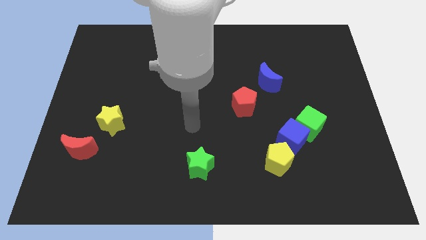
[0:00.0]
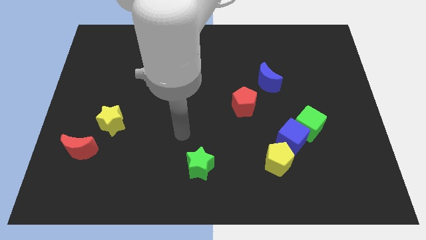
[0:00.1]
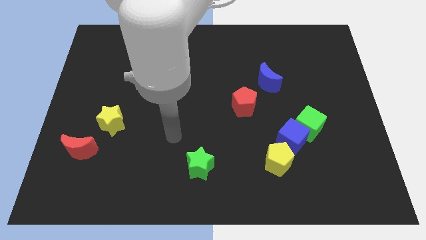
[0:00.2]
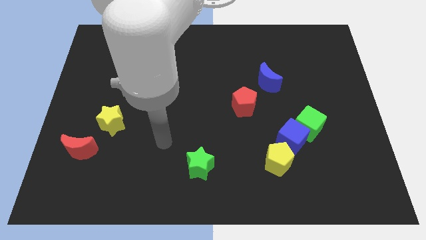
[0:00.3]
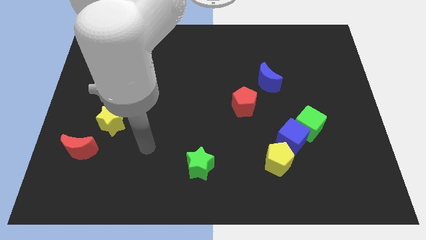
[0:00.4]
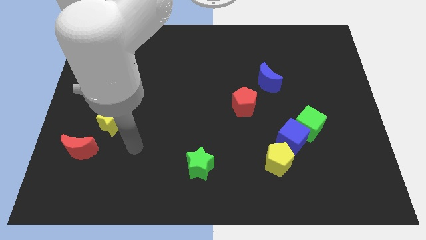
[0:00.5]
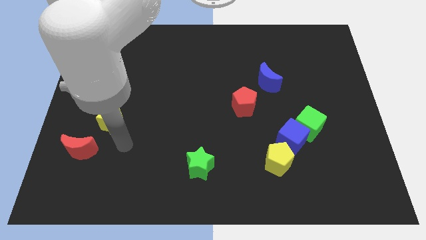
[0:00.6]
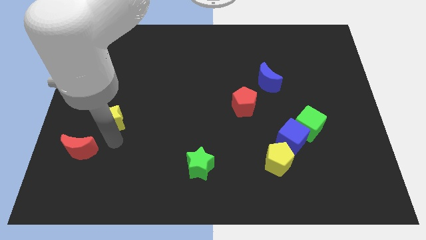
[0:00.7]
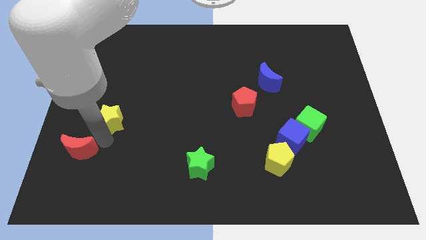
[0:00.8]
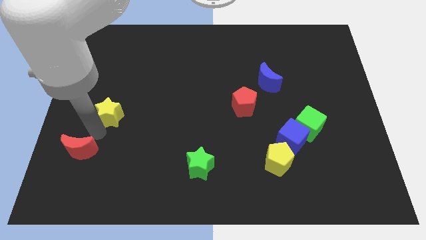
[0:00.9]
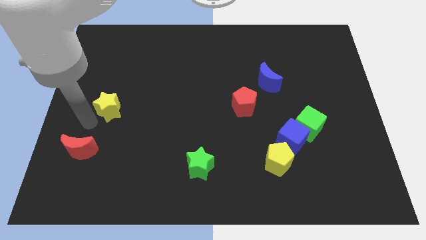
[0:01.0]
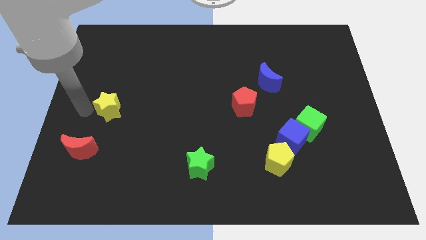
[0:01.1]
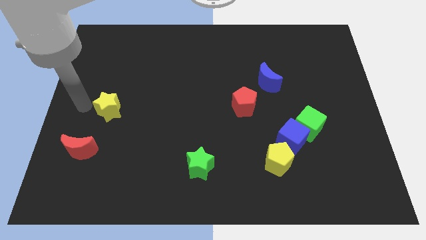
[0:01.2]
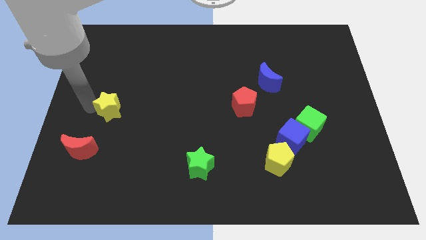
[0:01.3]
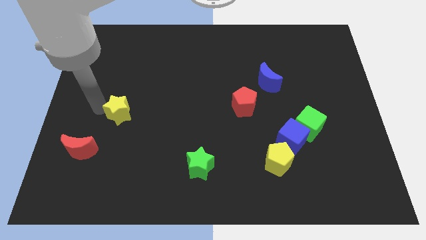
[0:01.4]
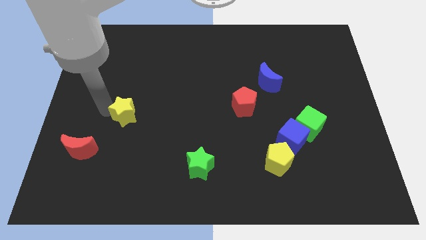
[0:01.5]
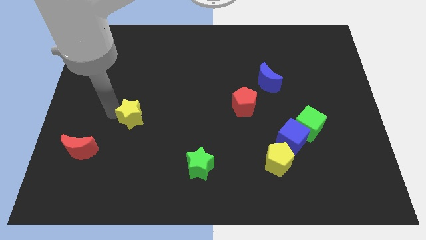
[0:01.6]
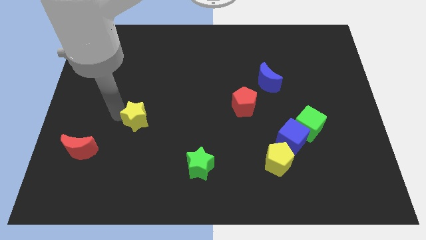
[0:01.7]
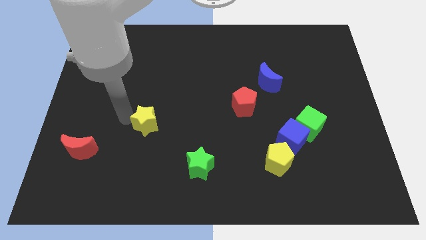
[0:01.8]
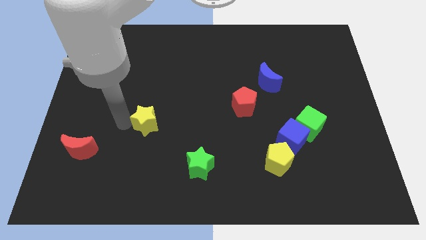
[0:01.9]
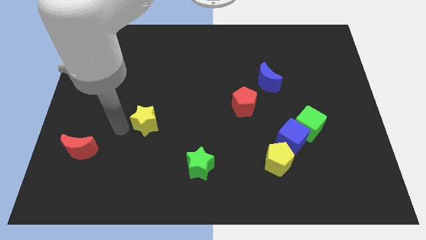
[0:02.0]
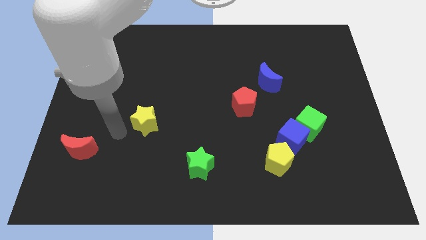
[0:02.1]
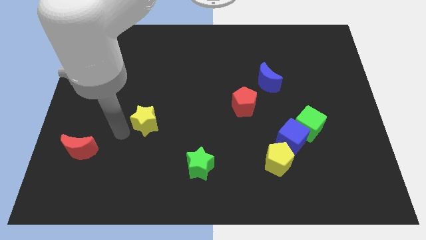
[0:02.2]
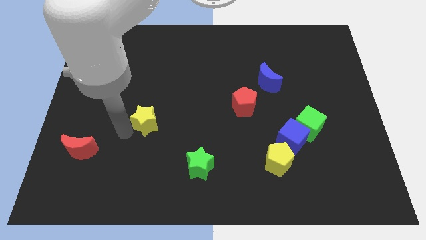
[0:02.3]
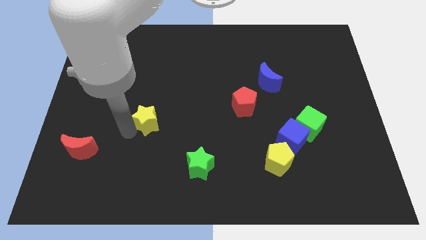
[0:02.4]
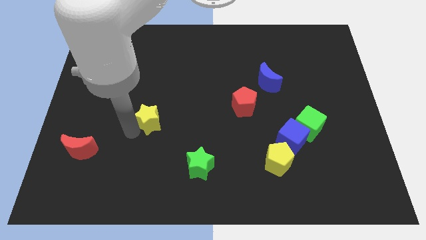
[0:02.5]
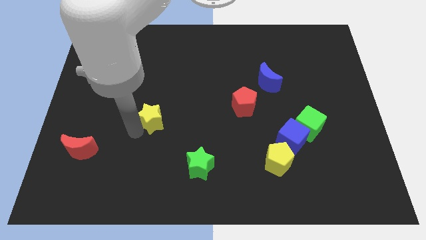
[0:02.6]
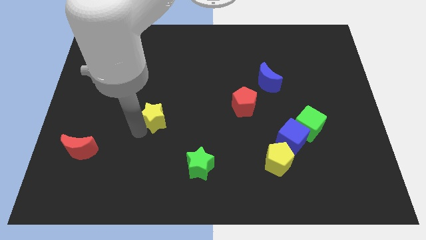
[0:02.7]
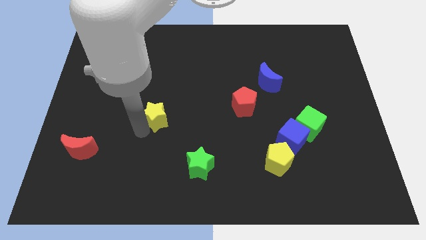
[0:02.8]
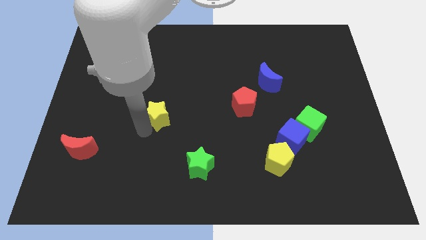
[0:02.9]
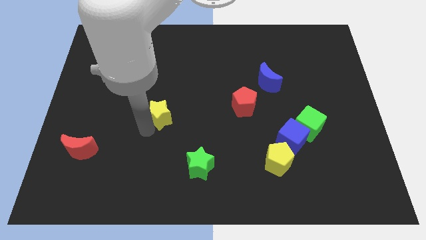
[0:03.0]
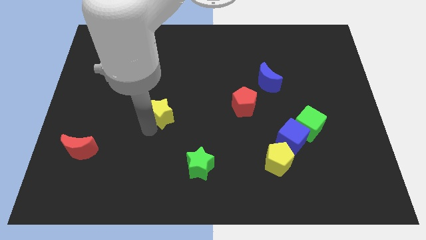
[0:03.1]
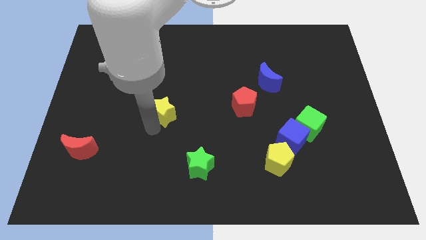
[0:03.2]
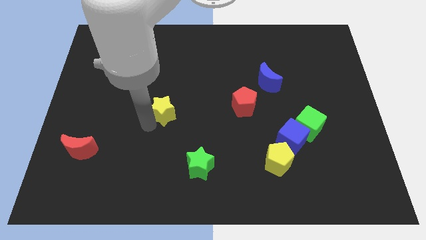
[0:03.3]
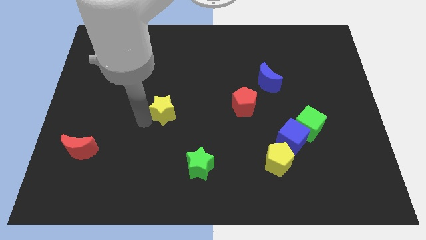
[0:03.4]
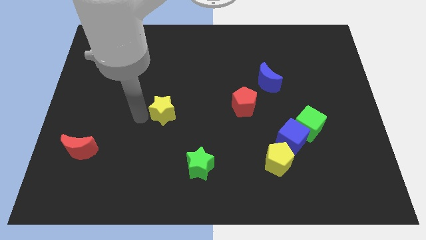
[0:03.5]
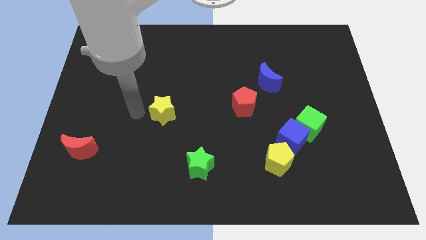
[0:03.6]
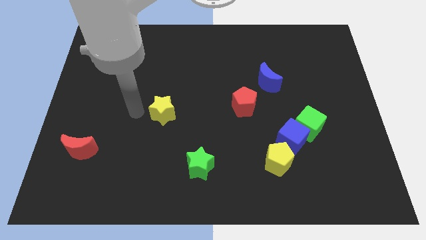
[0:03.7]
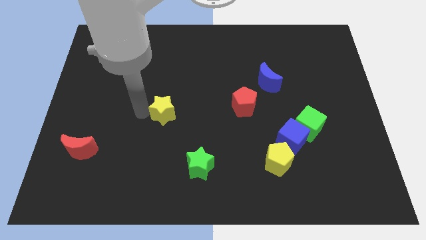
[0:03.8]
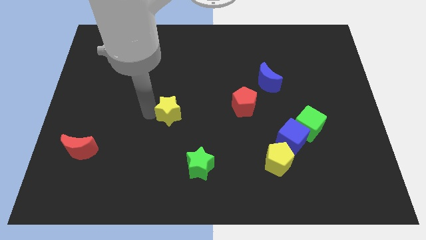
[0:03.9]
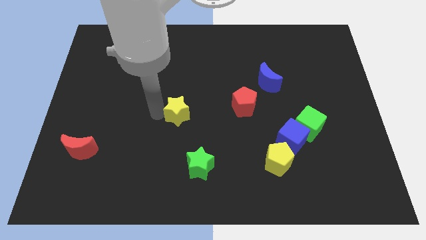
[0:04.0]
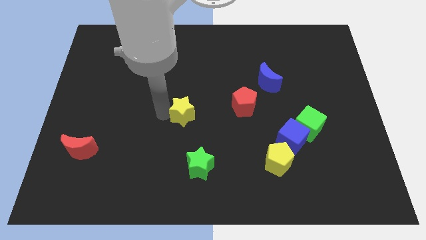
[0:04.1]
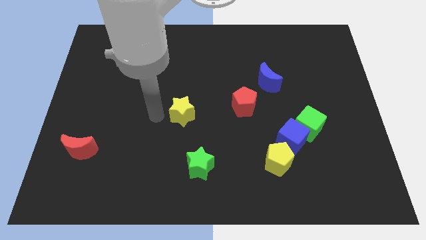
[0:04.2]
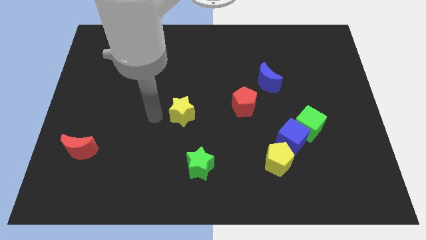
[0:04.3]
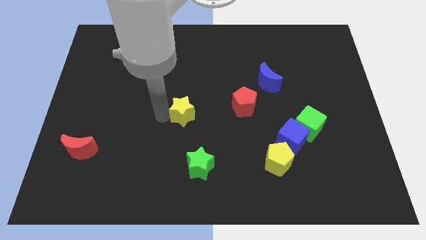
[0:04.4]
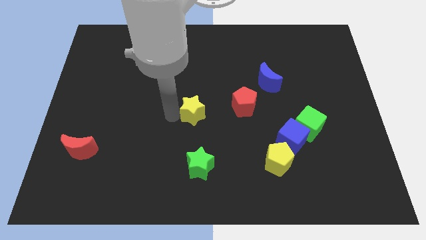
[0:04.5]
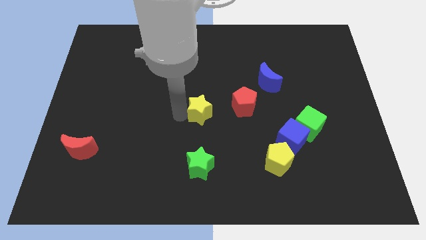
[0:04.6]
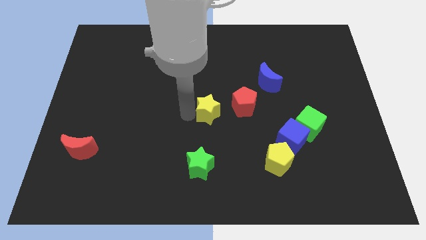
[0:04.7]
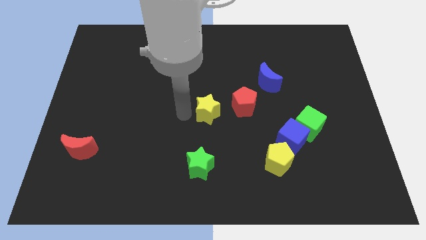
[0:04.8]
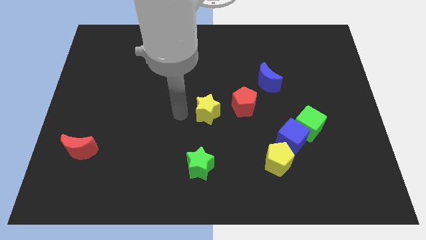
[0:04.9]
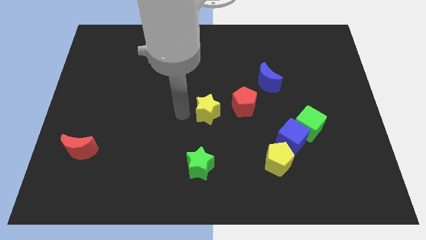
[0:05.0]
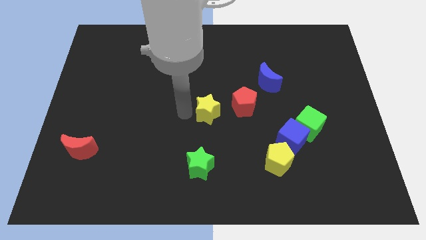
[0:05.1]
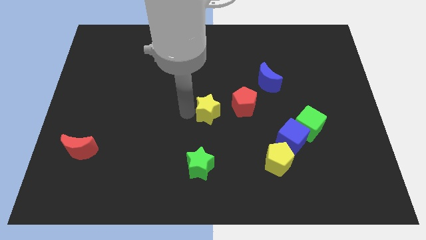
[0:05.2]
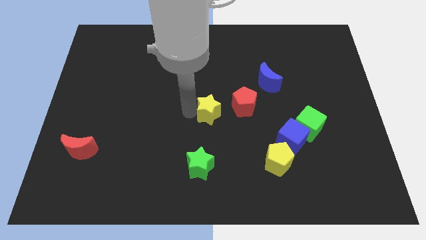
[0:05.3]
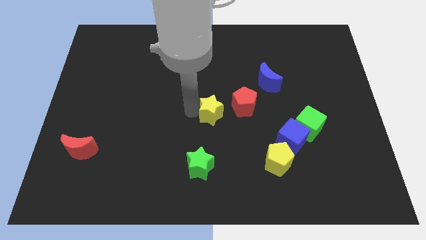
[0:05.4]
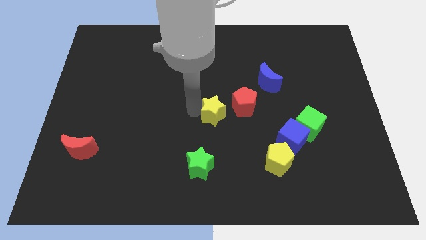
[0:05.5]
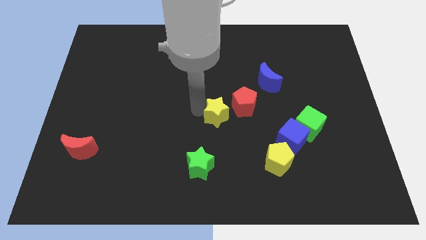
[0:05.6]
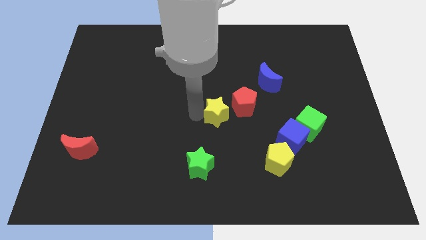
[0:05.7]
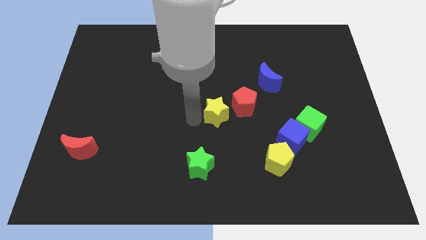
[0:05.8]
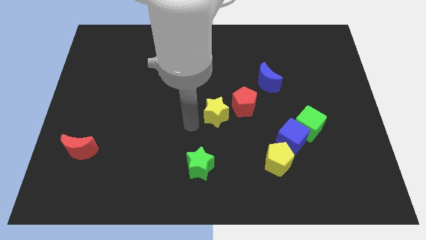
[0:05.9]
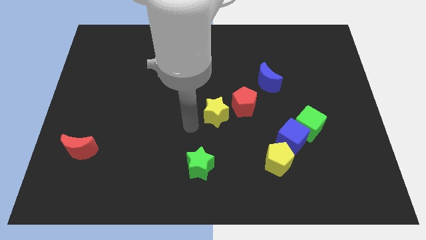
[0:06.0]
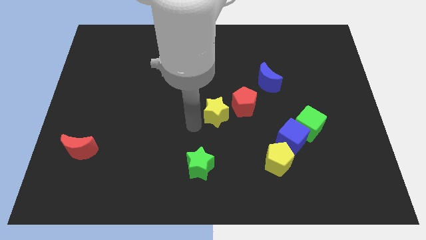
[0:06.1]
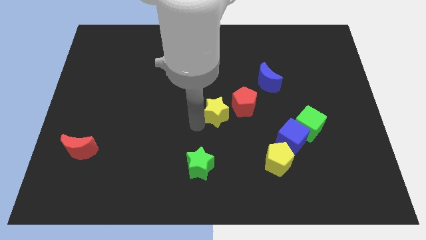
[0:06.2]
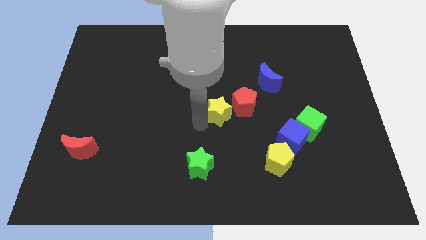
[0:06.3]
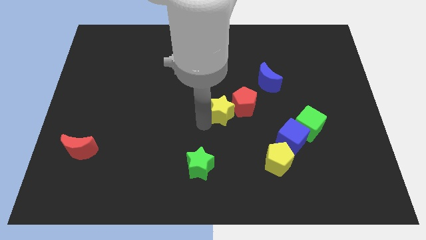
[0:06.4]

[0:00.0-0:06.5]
slide the yellow star towards the red pentagon
